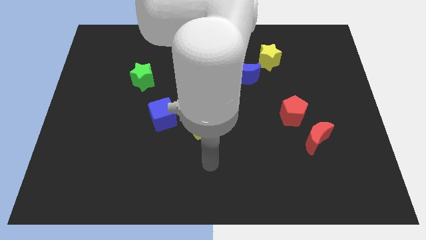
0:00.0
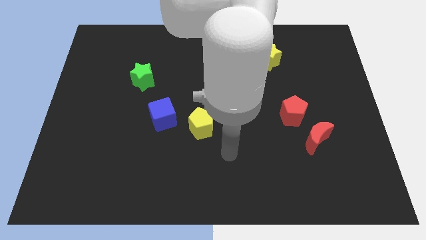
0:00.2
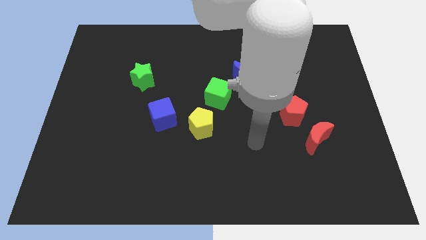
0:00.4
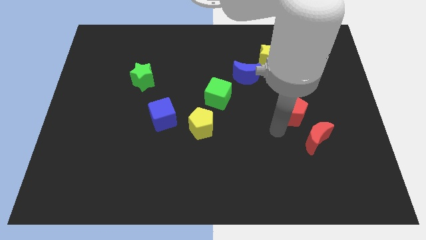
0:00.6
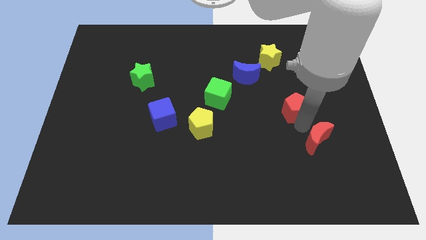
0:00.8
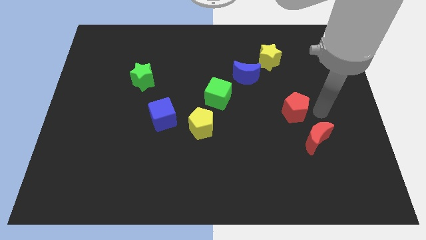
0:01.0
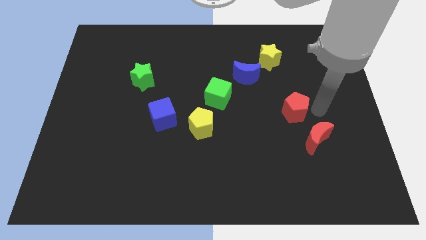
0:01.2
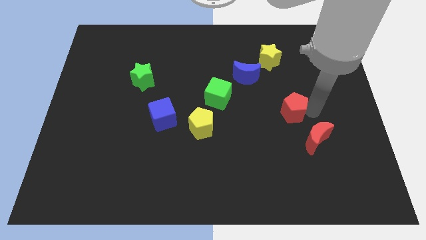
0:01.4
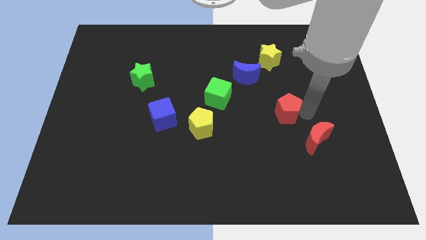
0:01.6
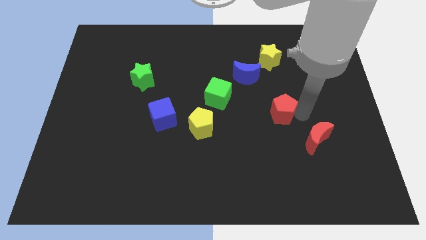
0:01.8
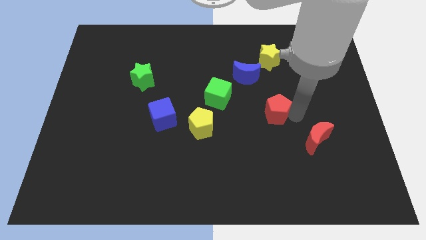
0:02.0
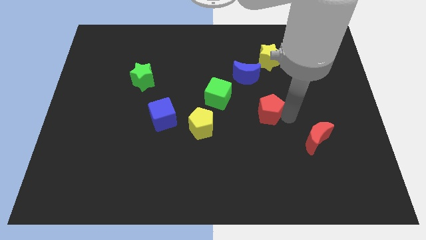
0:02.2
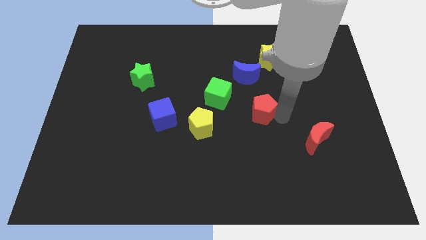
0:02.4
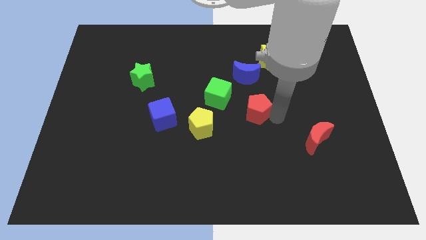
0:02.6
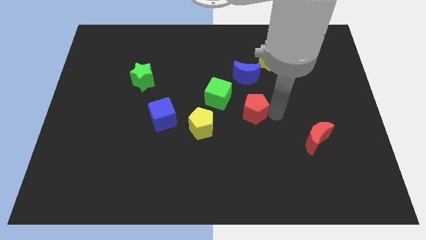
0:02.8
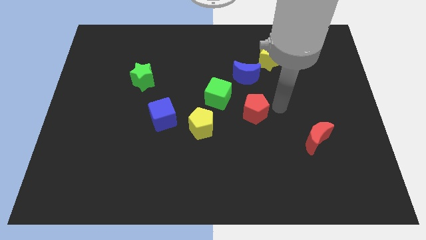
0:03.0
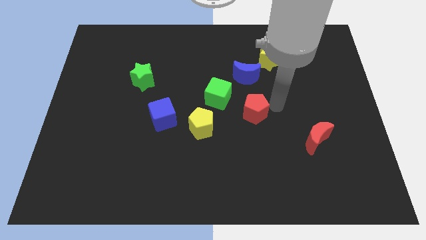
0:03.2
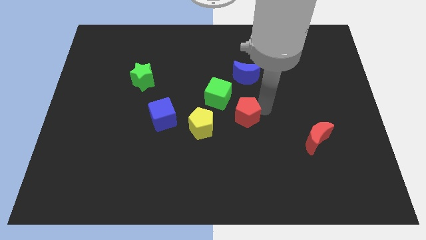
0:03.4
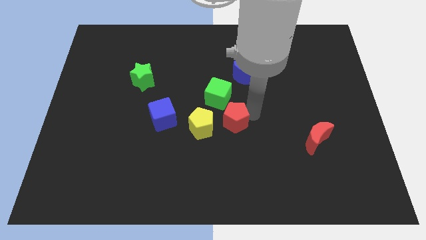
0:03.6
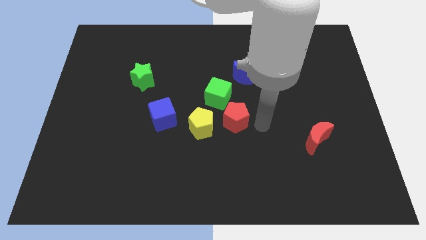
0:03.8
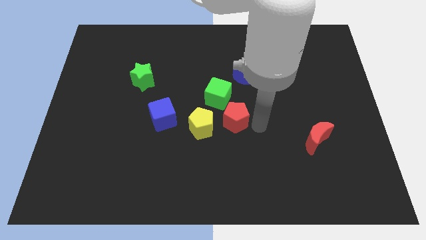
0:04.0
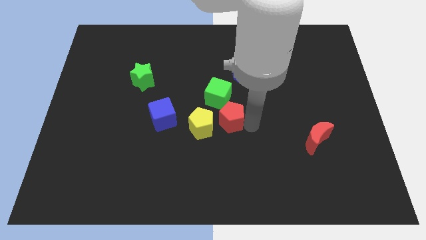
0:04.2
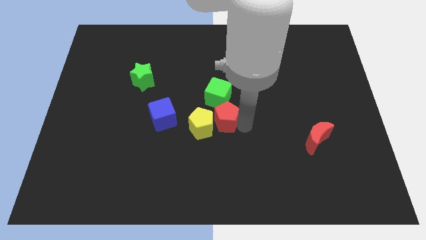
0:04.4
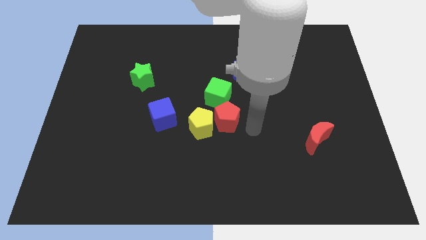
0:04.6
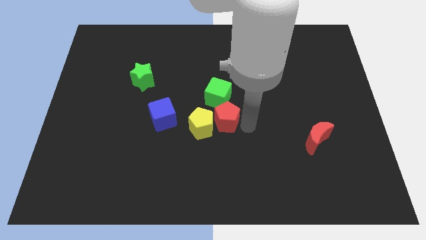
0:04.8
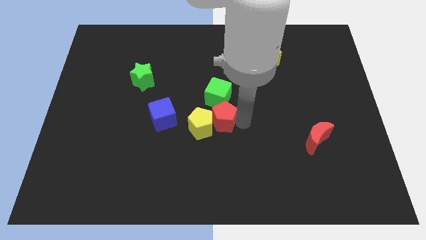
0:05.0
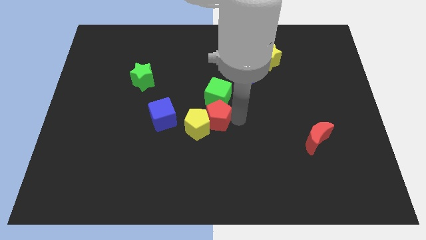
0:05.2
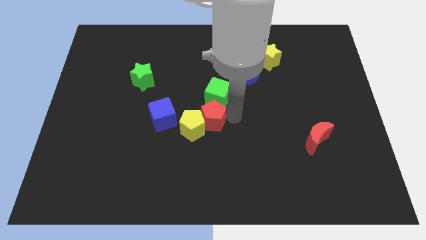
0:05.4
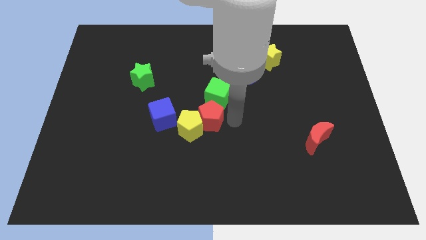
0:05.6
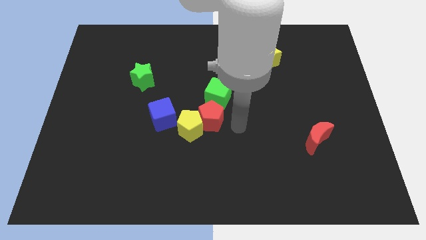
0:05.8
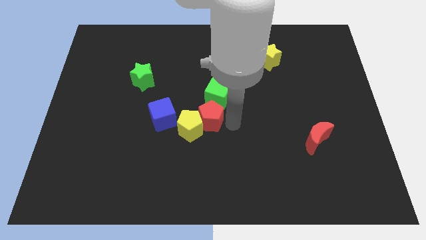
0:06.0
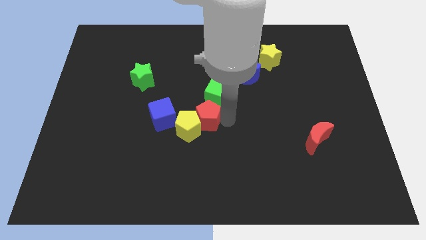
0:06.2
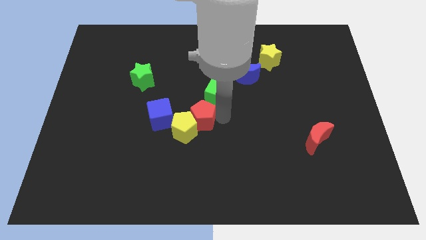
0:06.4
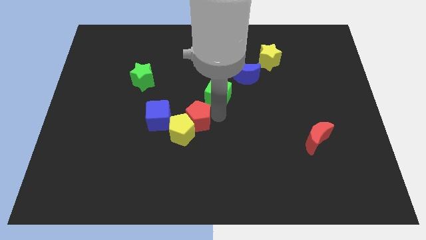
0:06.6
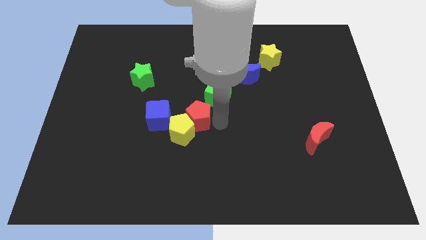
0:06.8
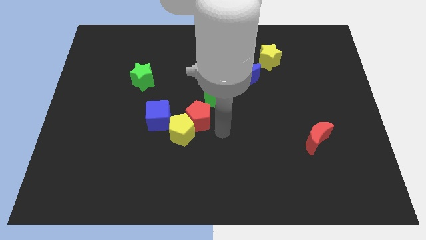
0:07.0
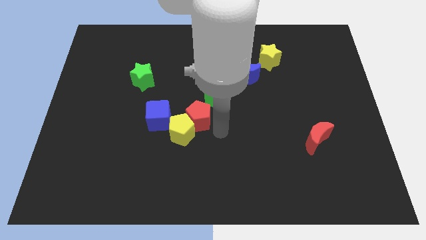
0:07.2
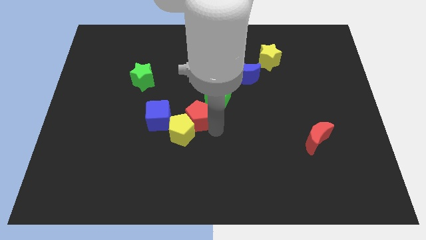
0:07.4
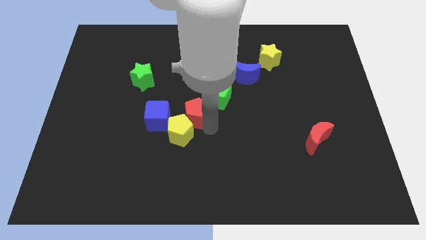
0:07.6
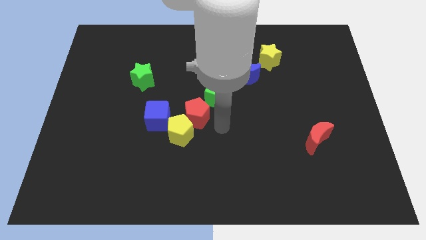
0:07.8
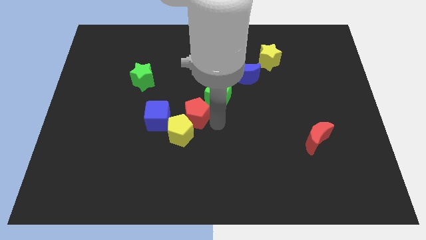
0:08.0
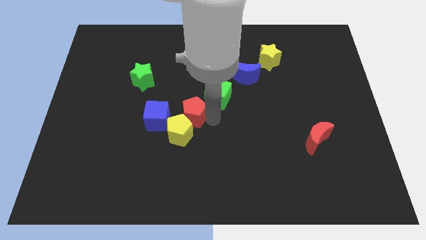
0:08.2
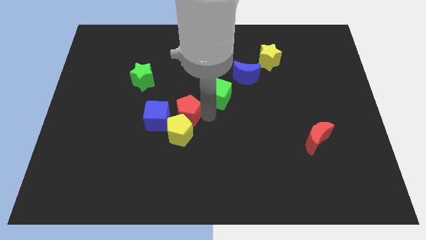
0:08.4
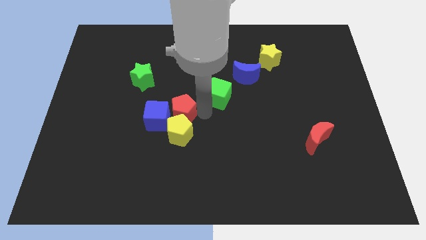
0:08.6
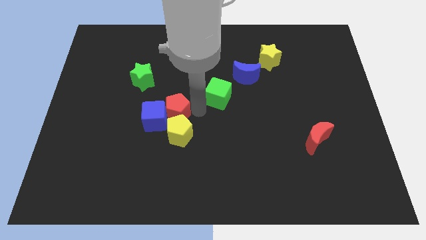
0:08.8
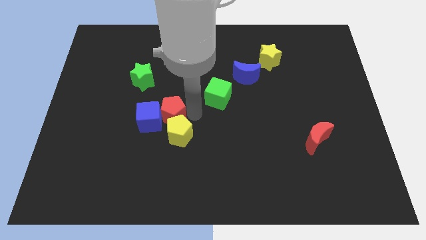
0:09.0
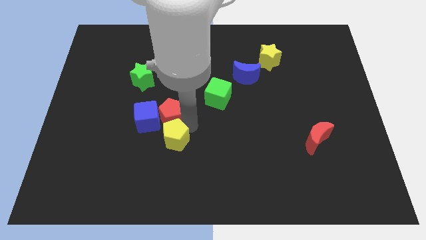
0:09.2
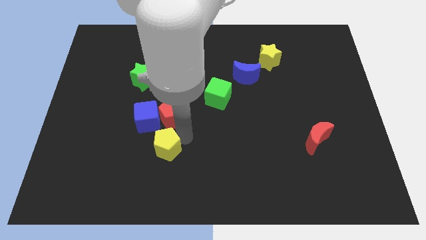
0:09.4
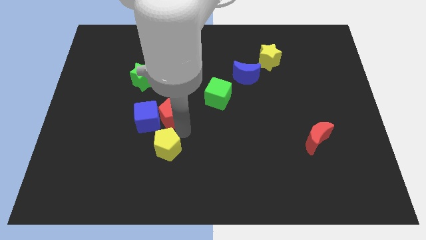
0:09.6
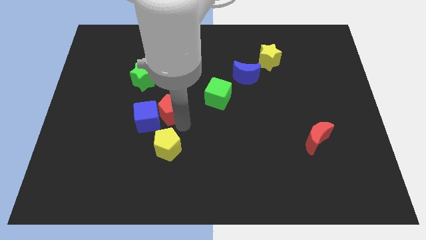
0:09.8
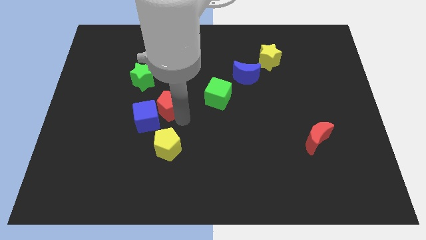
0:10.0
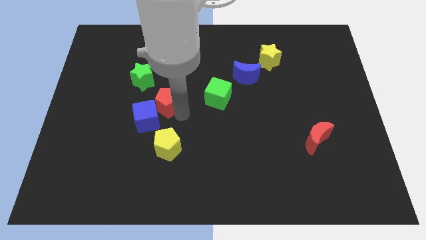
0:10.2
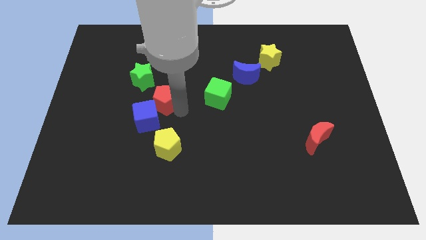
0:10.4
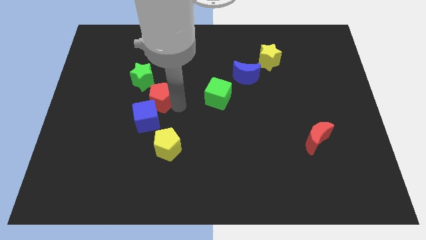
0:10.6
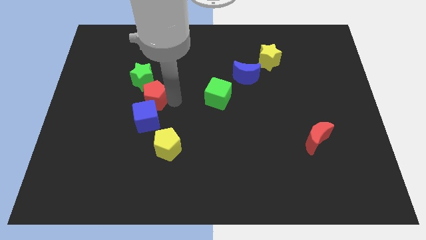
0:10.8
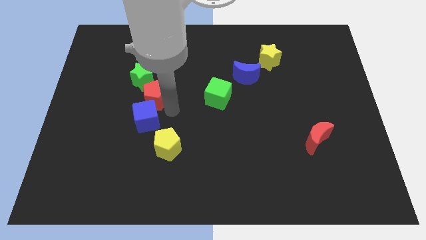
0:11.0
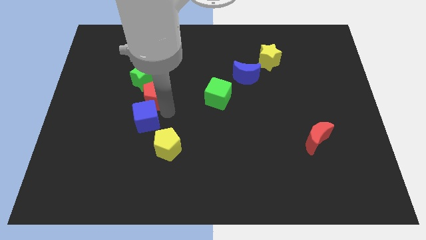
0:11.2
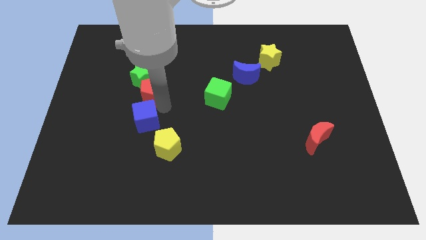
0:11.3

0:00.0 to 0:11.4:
push the red pentagon to the green star

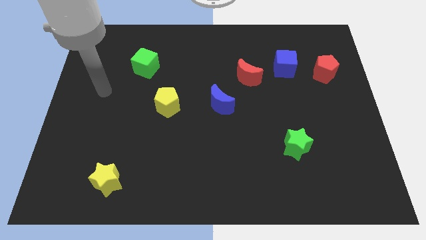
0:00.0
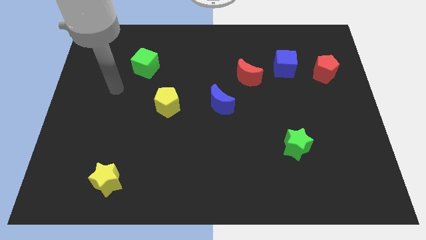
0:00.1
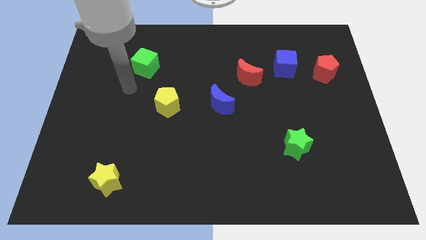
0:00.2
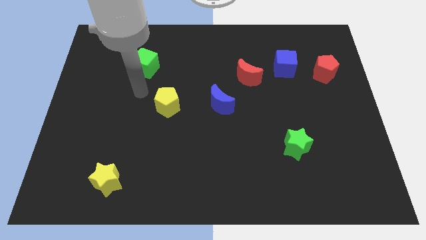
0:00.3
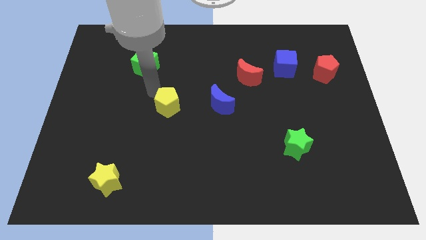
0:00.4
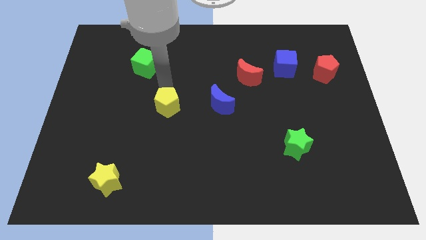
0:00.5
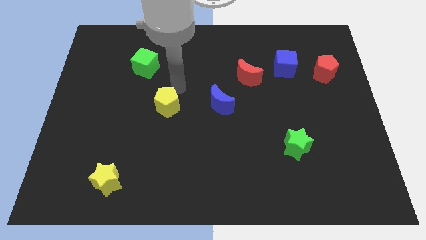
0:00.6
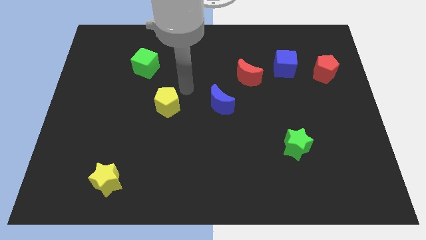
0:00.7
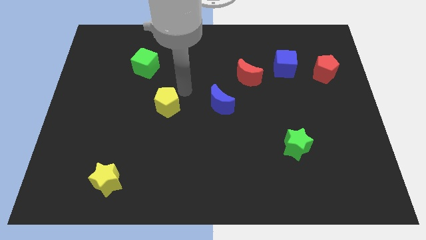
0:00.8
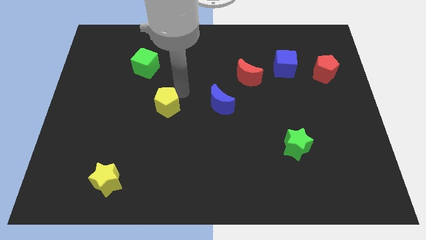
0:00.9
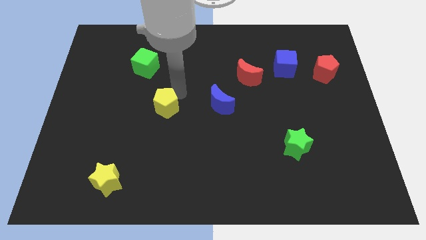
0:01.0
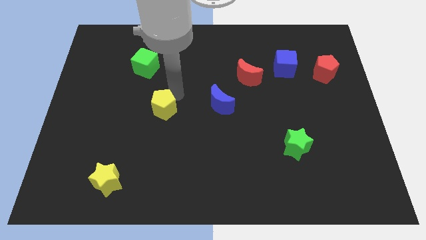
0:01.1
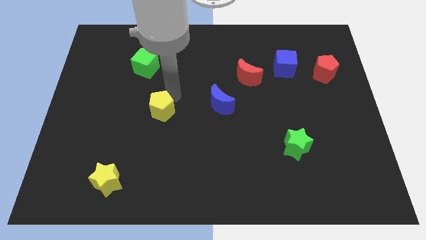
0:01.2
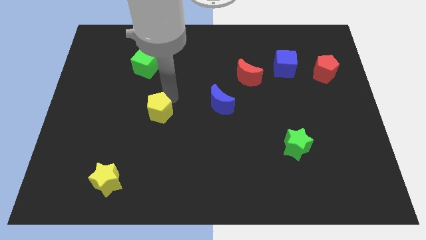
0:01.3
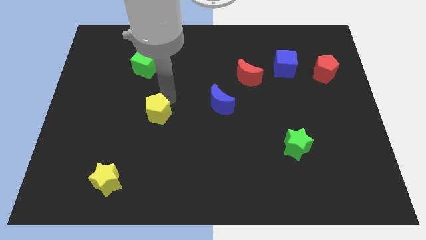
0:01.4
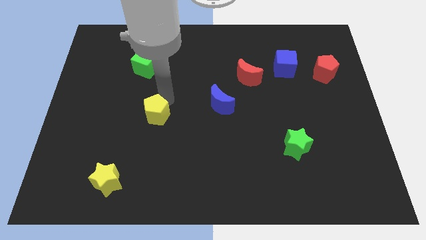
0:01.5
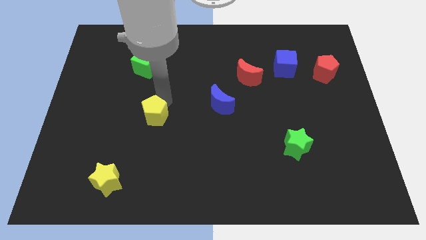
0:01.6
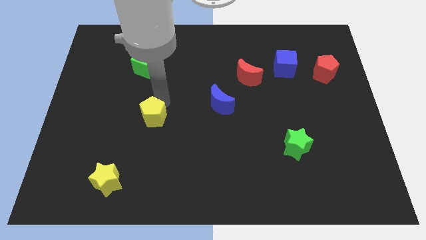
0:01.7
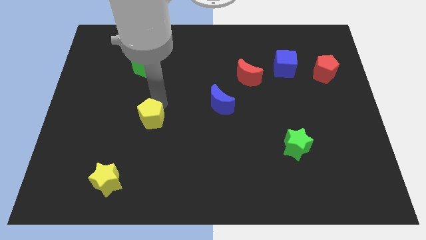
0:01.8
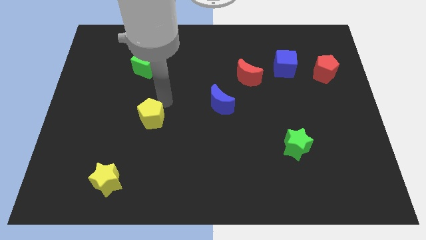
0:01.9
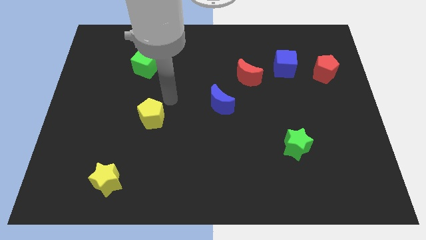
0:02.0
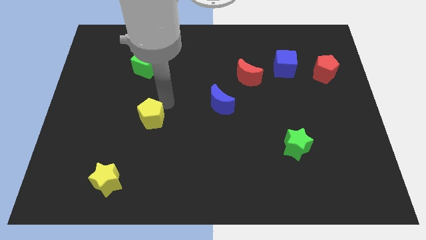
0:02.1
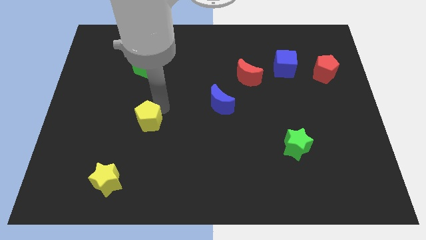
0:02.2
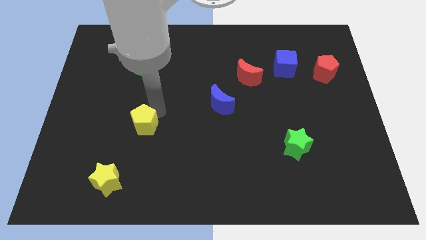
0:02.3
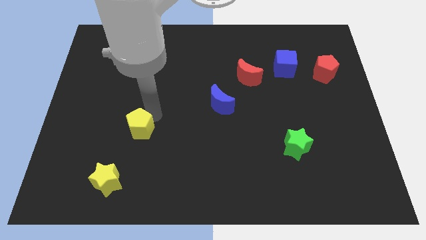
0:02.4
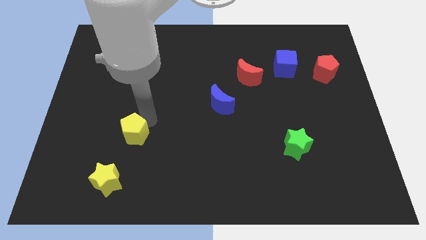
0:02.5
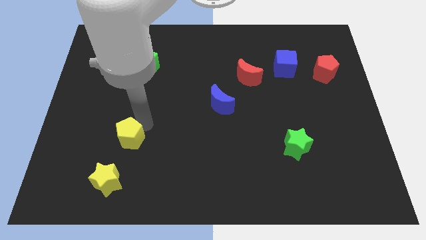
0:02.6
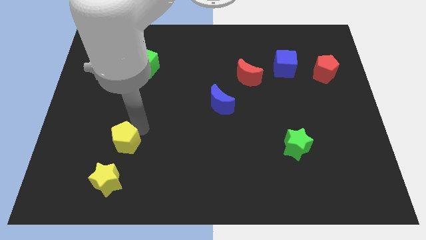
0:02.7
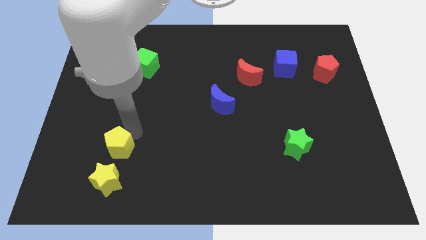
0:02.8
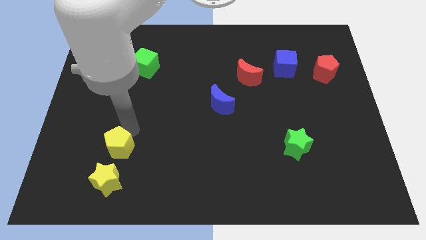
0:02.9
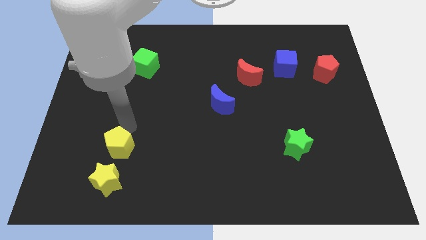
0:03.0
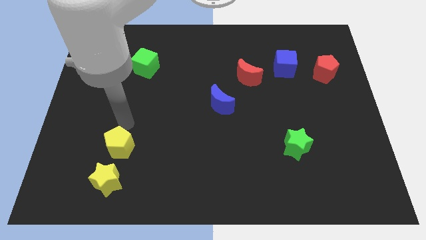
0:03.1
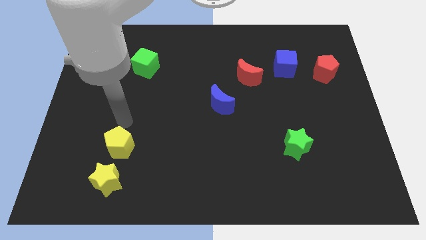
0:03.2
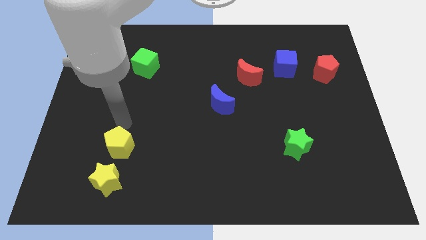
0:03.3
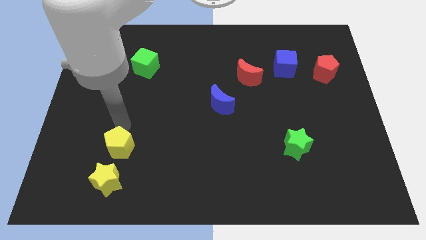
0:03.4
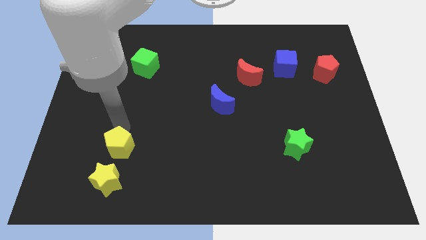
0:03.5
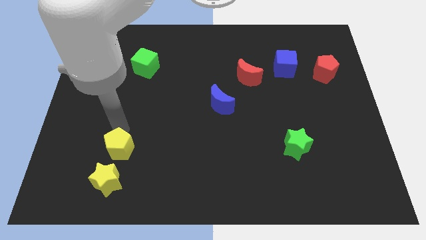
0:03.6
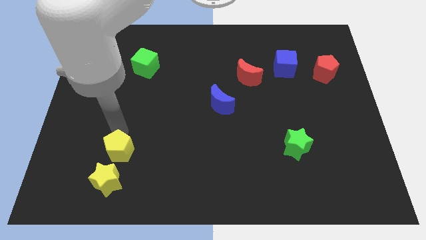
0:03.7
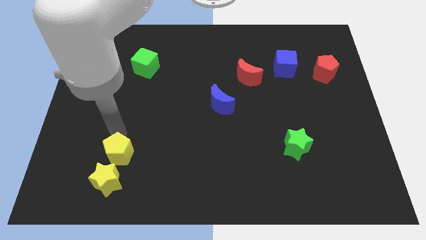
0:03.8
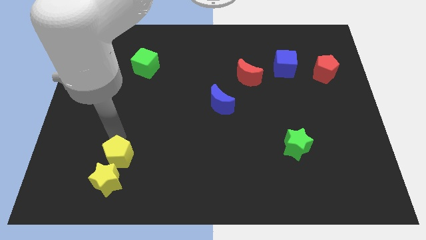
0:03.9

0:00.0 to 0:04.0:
slide the yellow pentagon next to the yellow star
